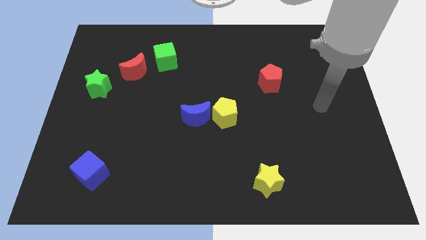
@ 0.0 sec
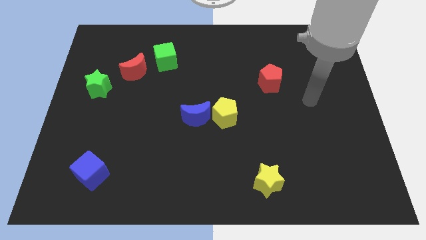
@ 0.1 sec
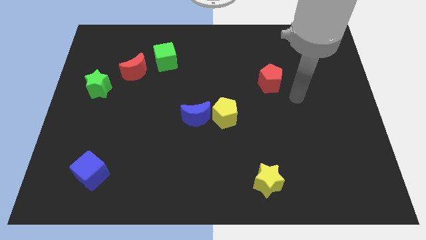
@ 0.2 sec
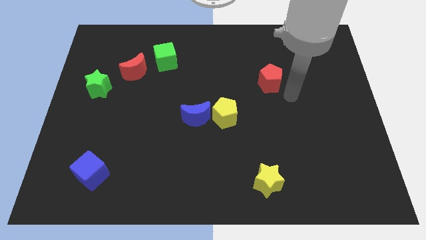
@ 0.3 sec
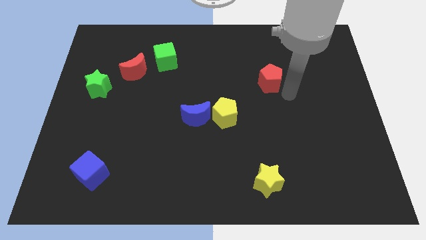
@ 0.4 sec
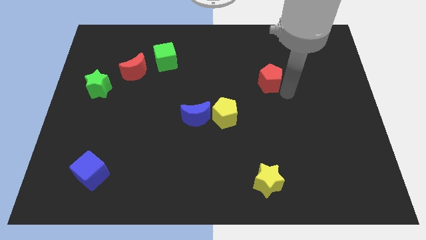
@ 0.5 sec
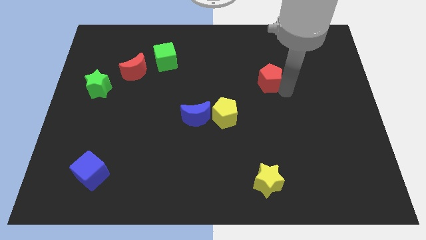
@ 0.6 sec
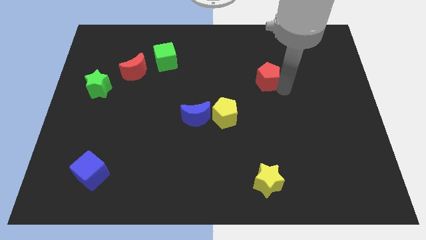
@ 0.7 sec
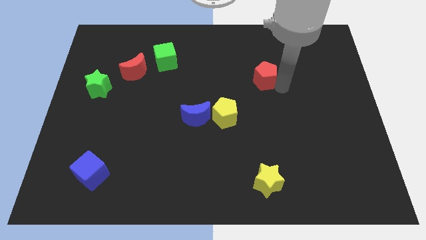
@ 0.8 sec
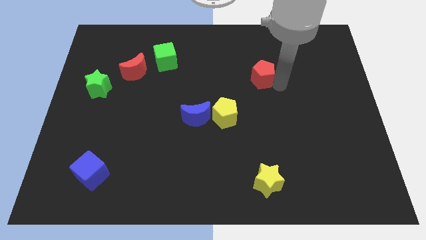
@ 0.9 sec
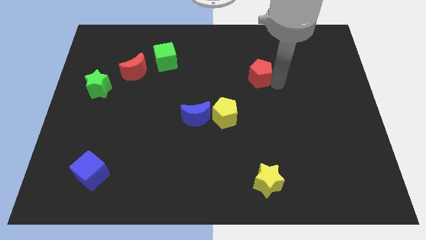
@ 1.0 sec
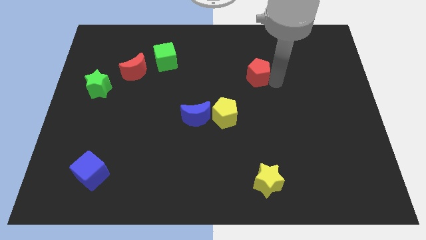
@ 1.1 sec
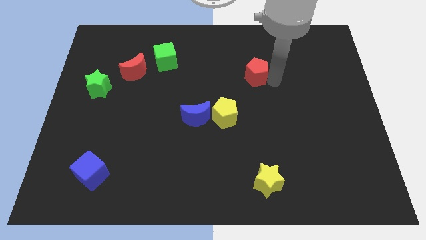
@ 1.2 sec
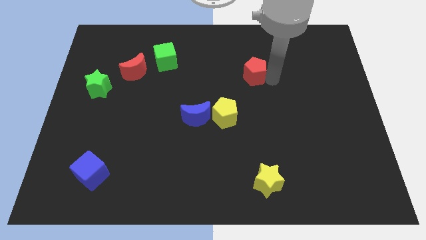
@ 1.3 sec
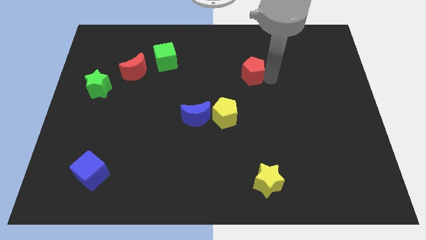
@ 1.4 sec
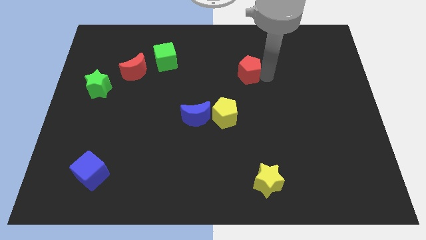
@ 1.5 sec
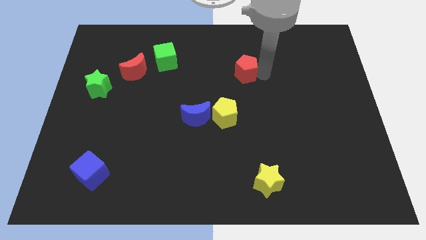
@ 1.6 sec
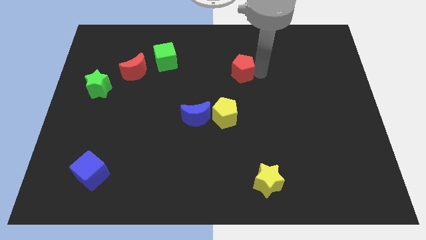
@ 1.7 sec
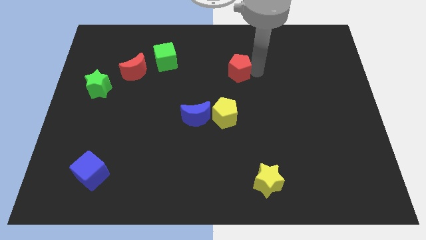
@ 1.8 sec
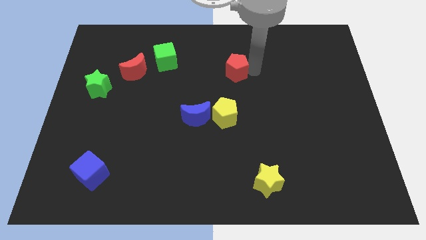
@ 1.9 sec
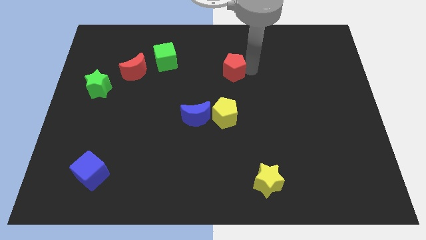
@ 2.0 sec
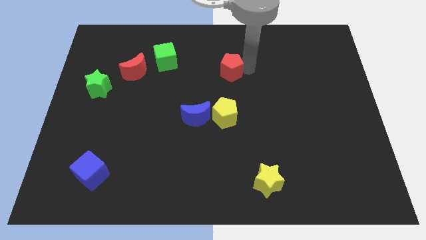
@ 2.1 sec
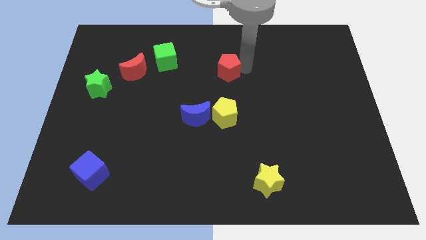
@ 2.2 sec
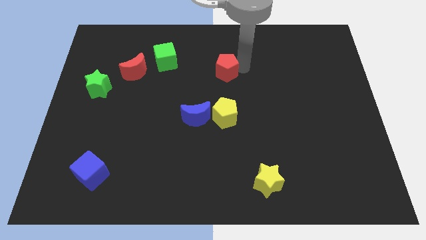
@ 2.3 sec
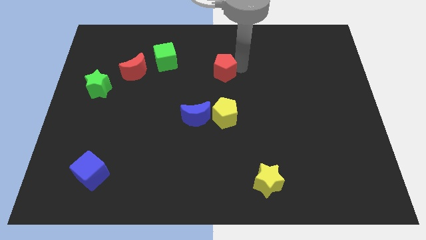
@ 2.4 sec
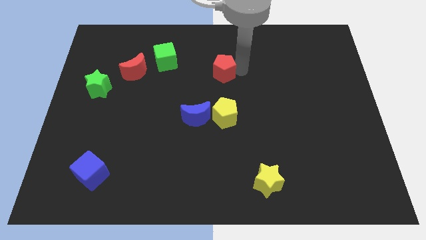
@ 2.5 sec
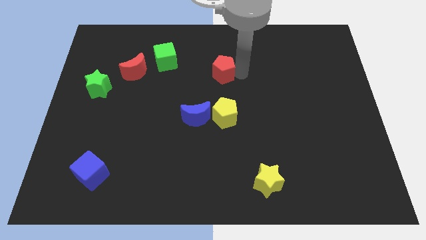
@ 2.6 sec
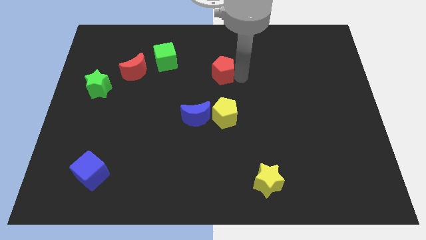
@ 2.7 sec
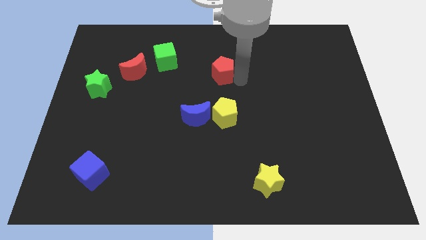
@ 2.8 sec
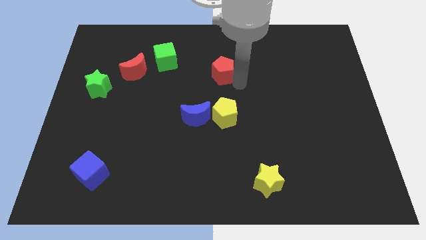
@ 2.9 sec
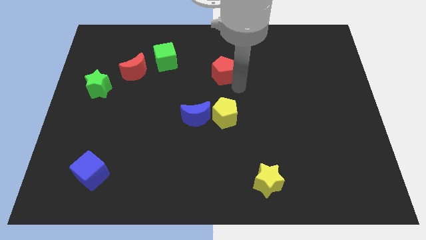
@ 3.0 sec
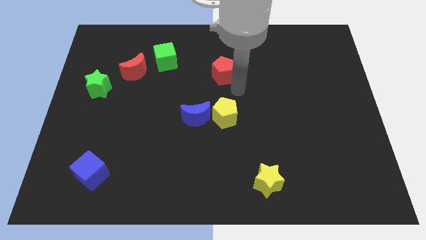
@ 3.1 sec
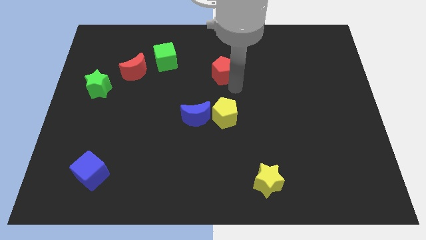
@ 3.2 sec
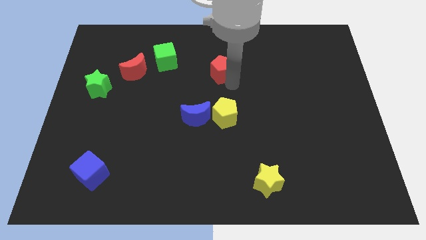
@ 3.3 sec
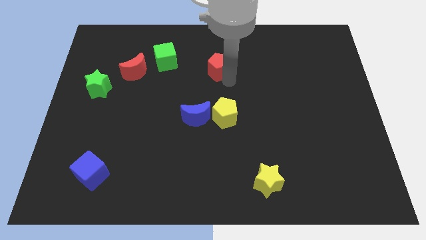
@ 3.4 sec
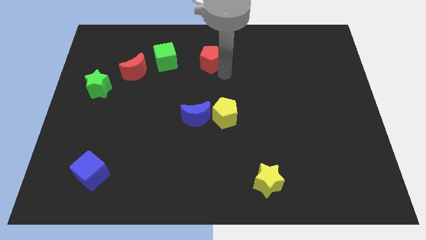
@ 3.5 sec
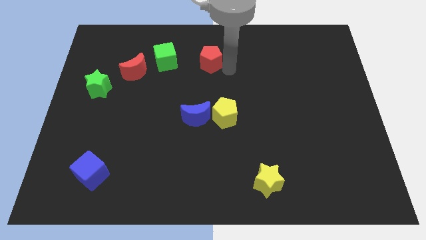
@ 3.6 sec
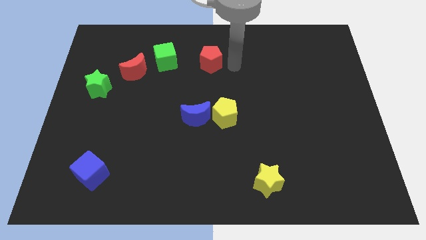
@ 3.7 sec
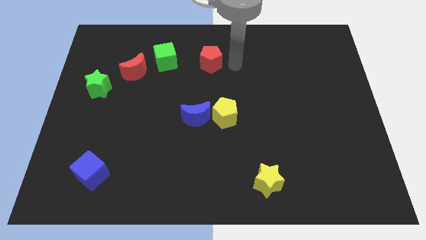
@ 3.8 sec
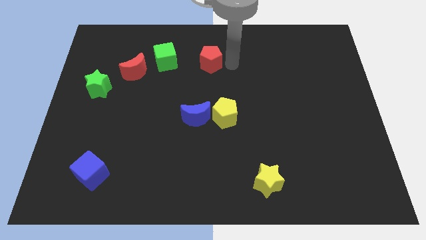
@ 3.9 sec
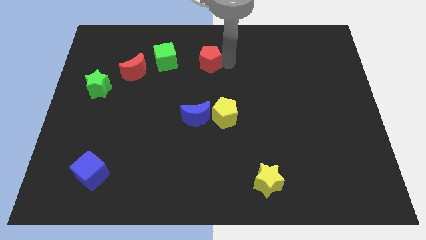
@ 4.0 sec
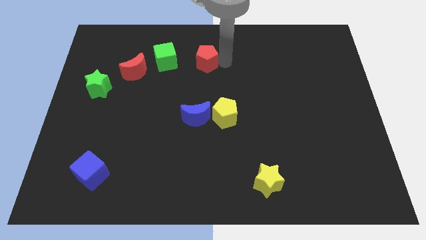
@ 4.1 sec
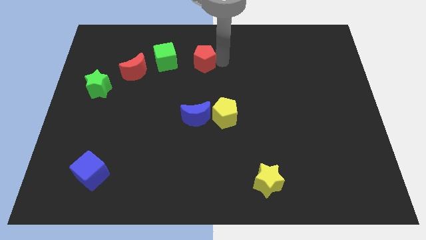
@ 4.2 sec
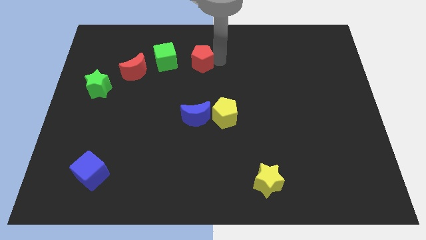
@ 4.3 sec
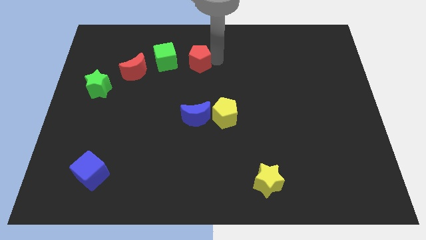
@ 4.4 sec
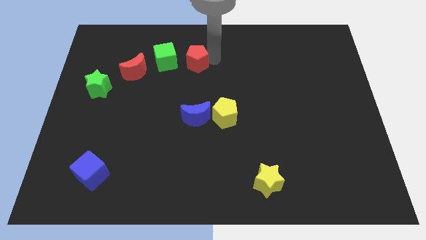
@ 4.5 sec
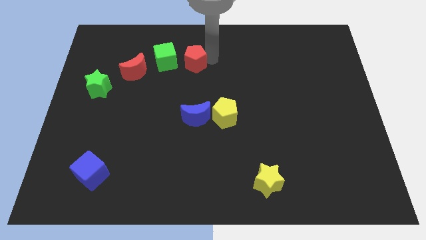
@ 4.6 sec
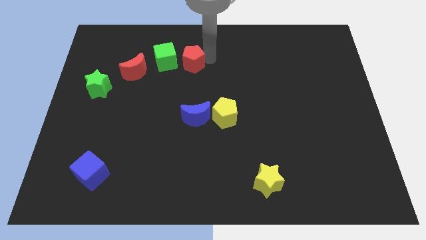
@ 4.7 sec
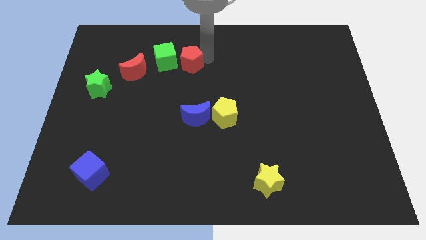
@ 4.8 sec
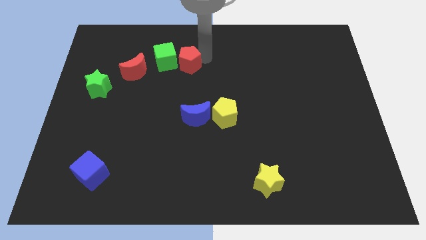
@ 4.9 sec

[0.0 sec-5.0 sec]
move the red pentagon next to the green cube

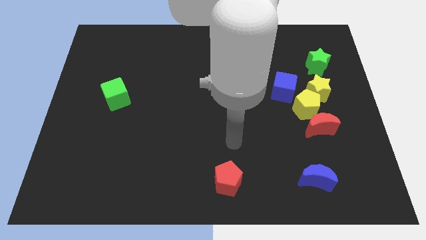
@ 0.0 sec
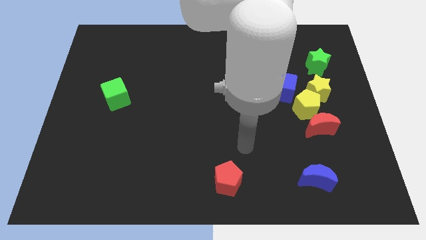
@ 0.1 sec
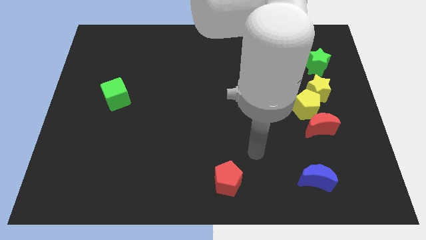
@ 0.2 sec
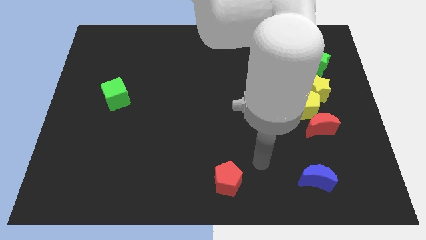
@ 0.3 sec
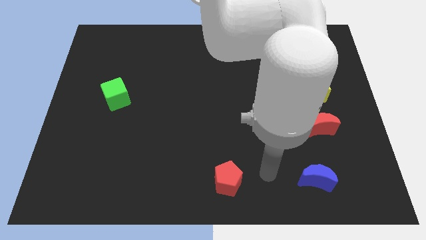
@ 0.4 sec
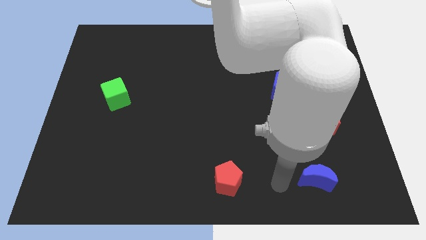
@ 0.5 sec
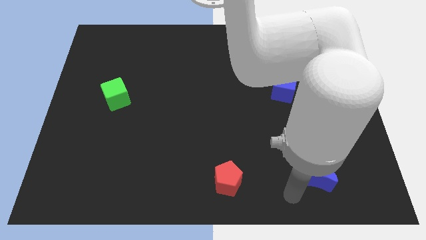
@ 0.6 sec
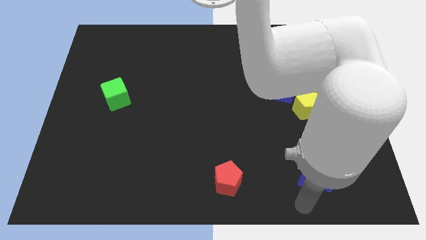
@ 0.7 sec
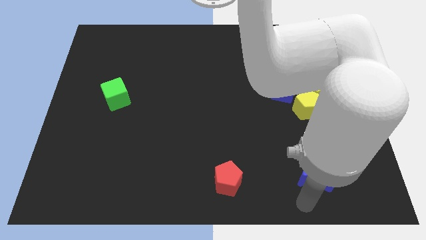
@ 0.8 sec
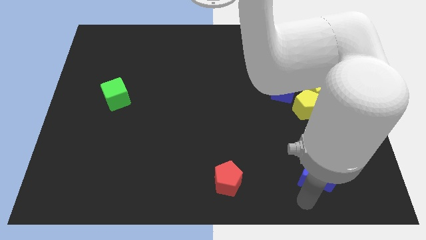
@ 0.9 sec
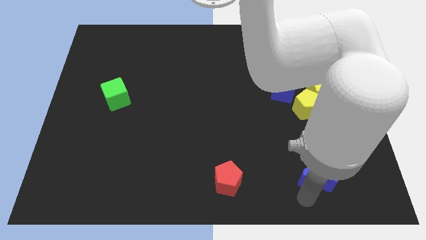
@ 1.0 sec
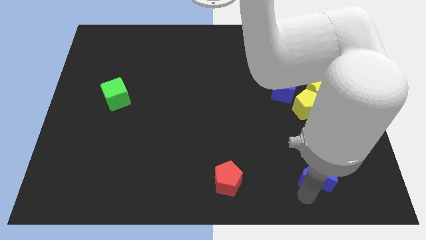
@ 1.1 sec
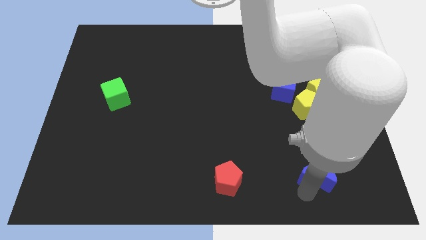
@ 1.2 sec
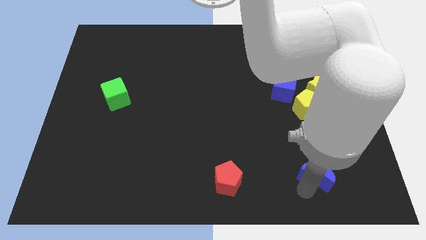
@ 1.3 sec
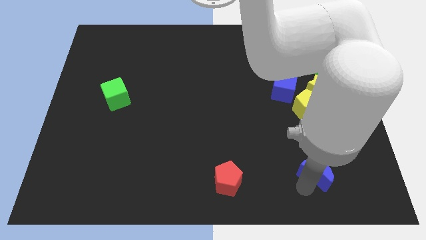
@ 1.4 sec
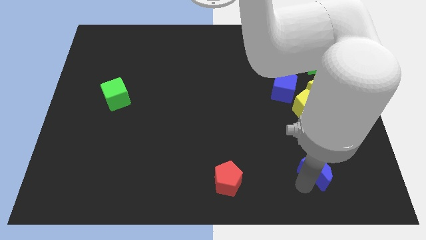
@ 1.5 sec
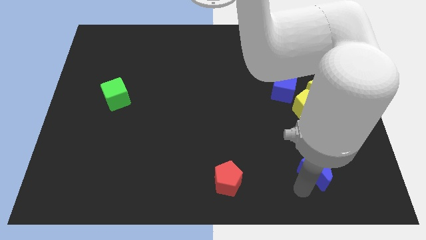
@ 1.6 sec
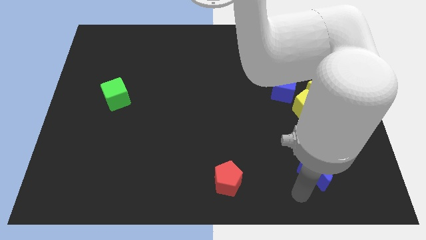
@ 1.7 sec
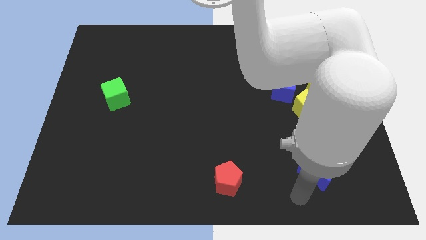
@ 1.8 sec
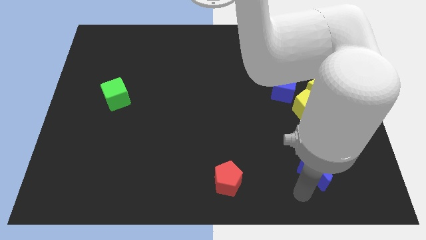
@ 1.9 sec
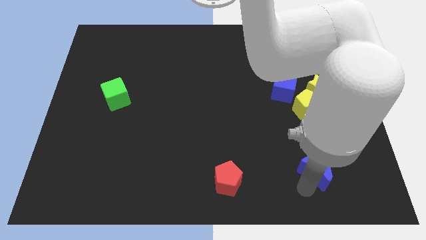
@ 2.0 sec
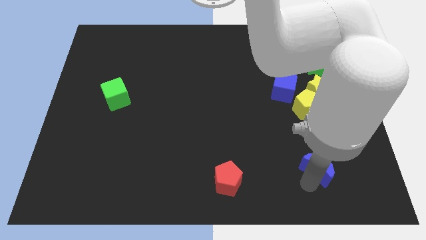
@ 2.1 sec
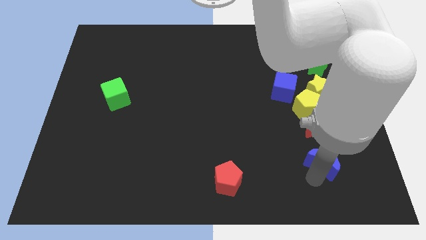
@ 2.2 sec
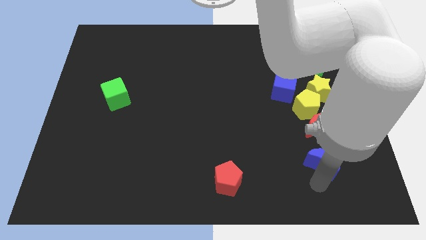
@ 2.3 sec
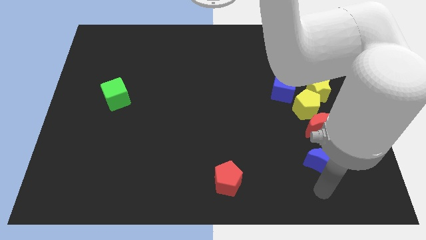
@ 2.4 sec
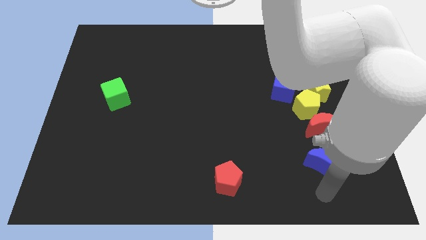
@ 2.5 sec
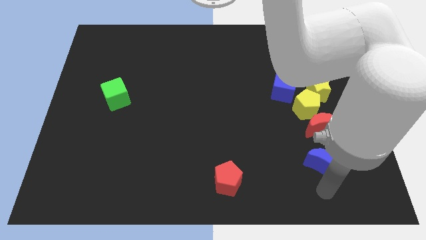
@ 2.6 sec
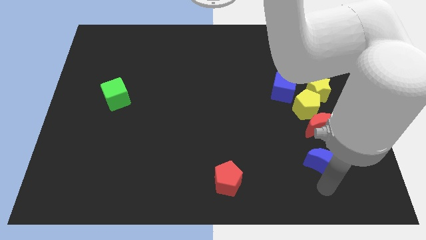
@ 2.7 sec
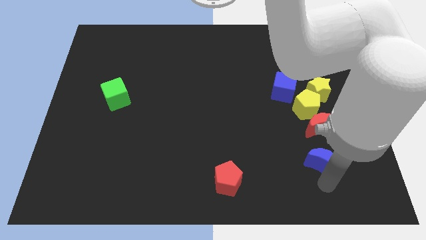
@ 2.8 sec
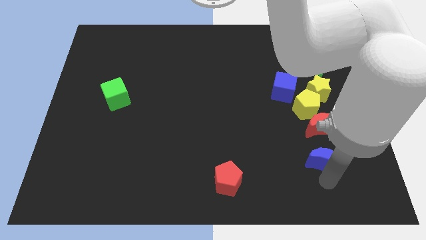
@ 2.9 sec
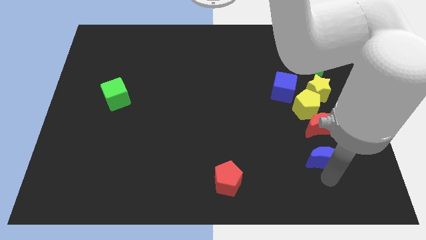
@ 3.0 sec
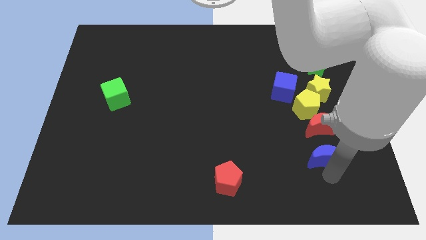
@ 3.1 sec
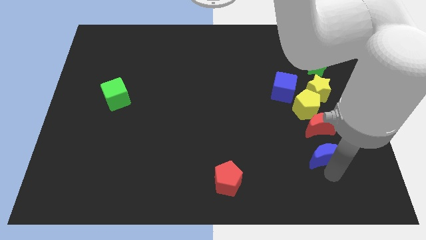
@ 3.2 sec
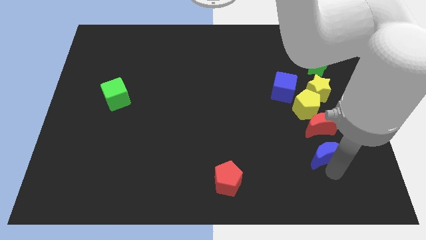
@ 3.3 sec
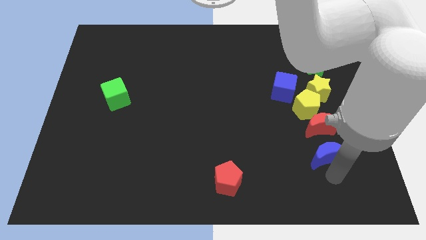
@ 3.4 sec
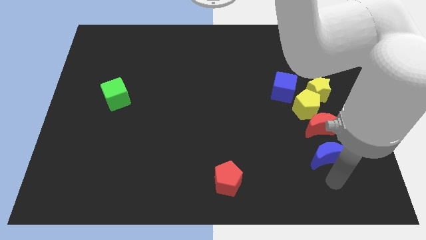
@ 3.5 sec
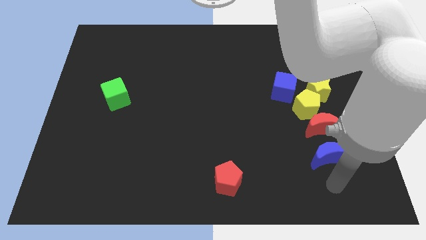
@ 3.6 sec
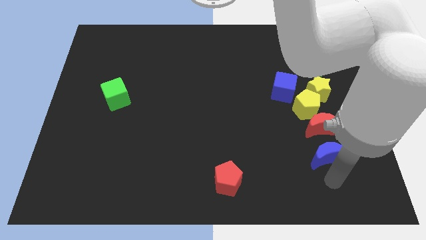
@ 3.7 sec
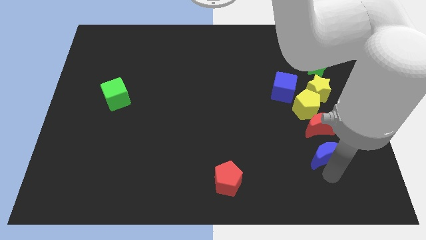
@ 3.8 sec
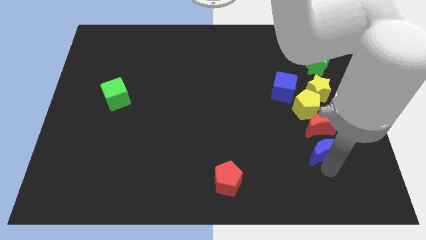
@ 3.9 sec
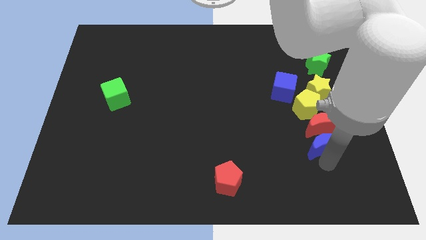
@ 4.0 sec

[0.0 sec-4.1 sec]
slide the blue moon close to the red moon
